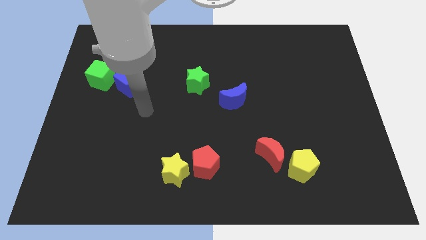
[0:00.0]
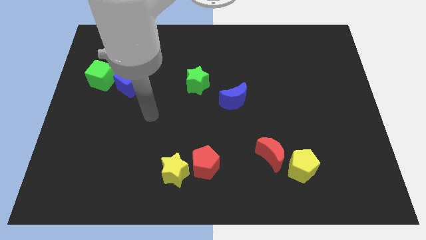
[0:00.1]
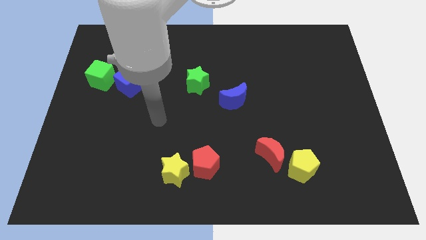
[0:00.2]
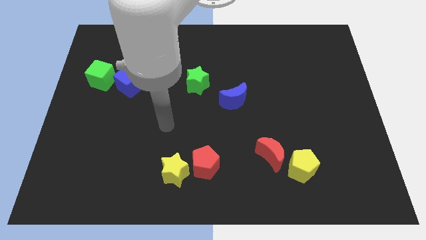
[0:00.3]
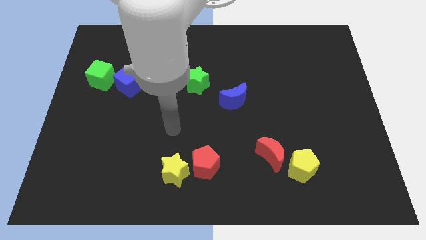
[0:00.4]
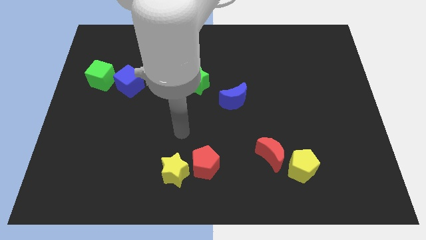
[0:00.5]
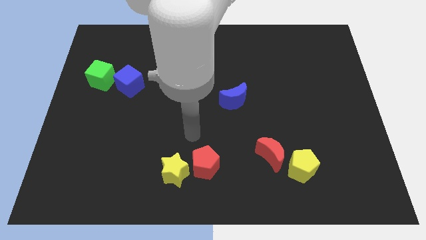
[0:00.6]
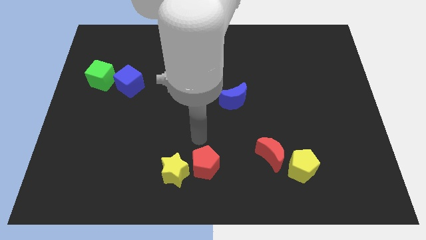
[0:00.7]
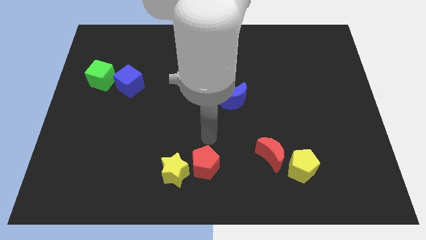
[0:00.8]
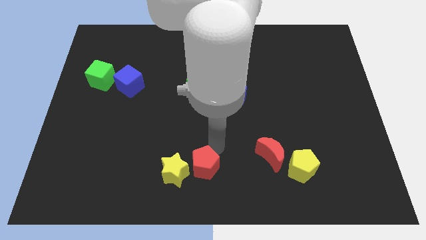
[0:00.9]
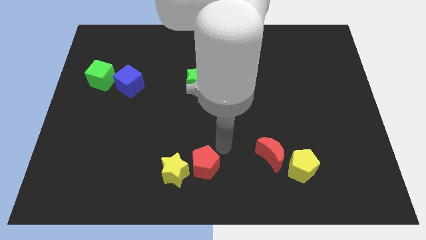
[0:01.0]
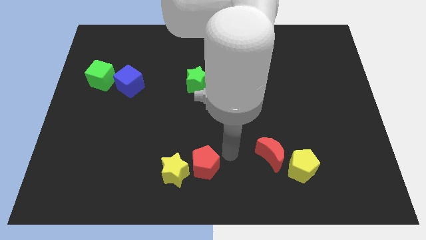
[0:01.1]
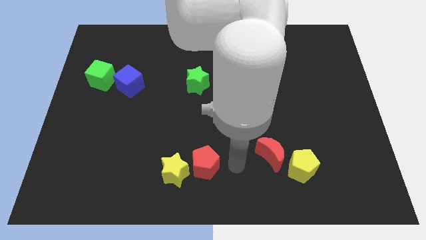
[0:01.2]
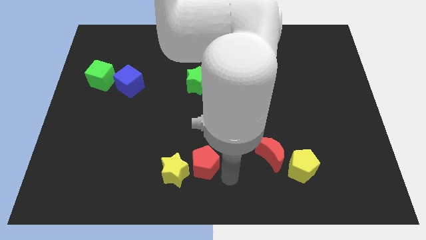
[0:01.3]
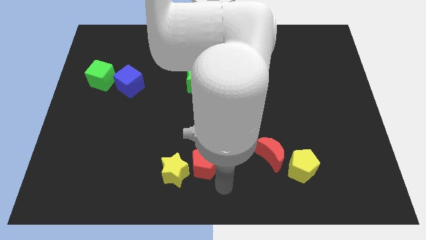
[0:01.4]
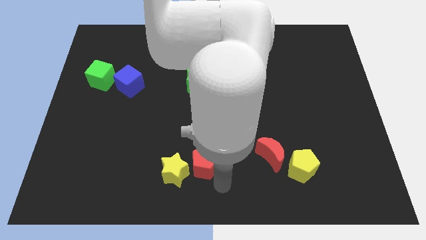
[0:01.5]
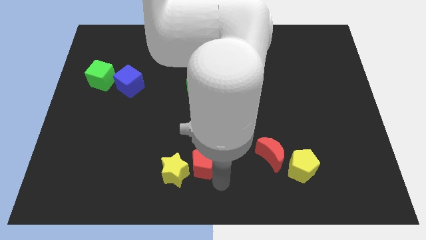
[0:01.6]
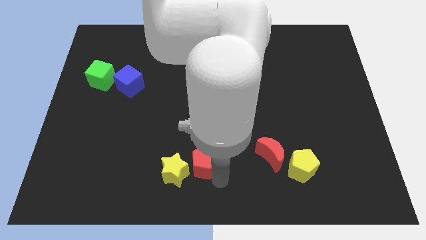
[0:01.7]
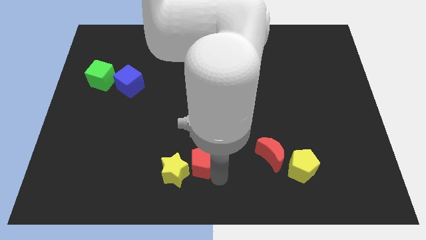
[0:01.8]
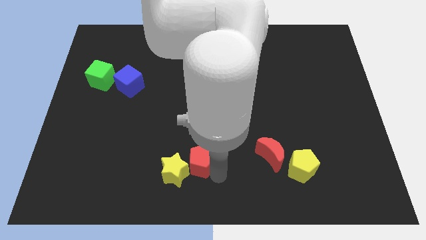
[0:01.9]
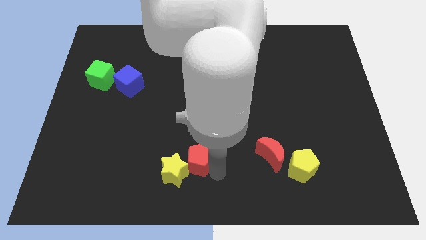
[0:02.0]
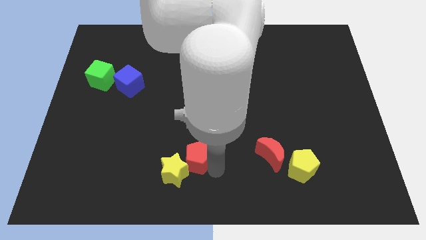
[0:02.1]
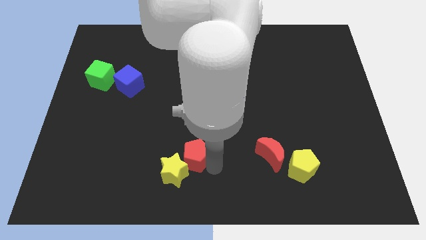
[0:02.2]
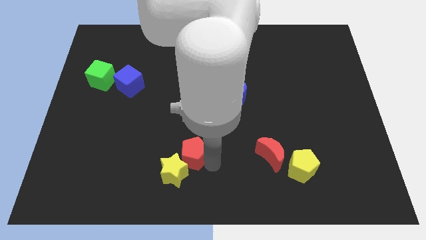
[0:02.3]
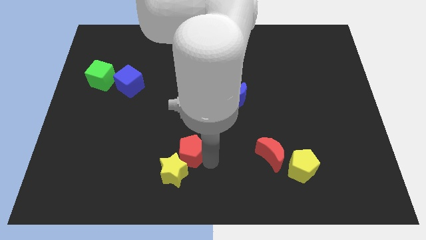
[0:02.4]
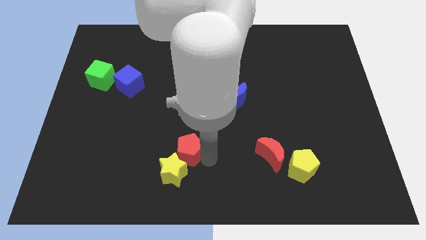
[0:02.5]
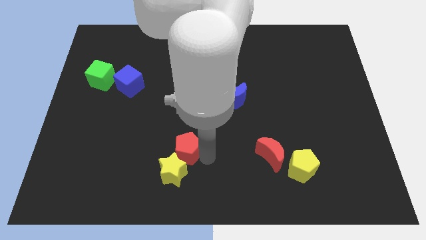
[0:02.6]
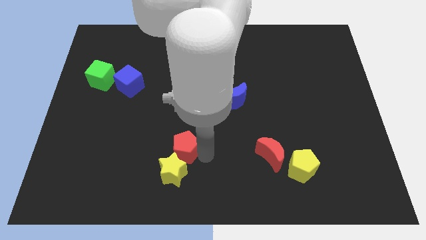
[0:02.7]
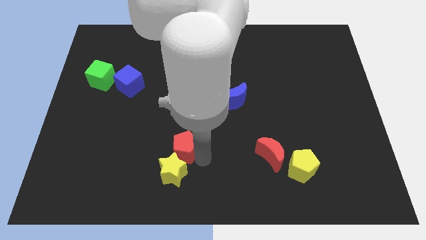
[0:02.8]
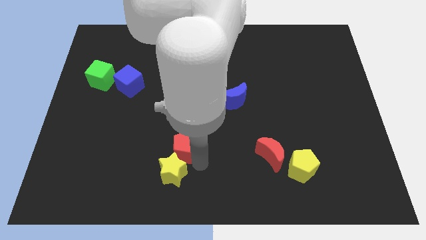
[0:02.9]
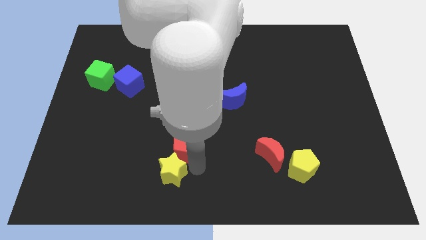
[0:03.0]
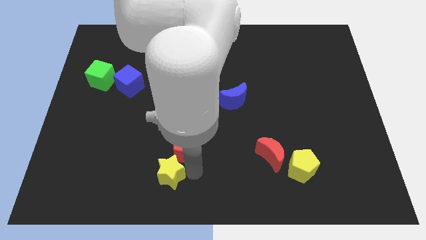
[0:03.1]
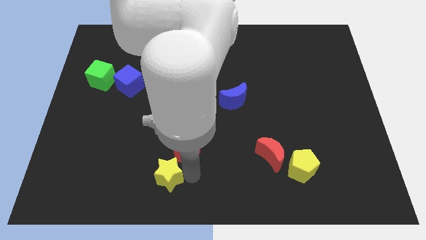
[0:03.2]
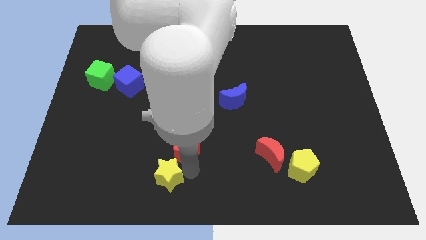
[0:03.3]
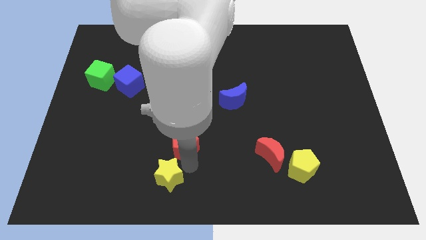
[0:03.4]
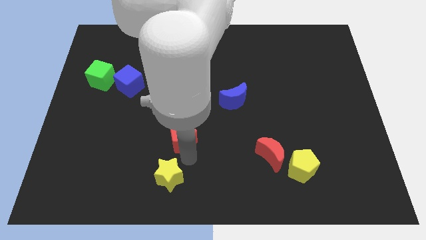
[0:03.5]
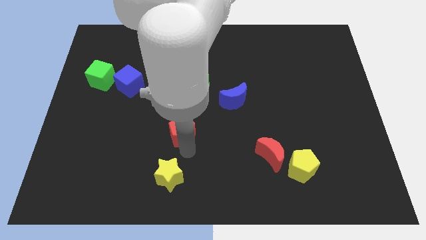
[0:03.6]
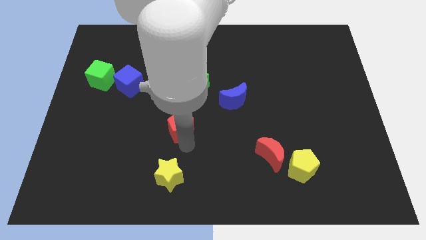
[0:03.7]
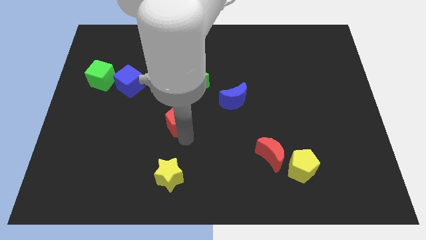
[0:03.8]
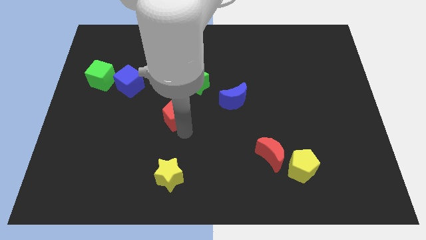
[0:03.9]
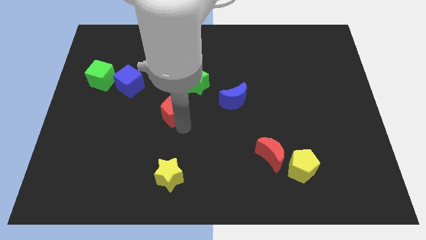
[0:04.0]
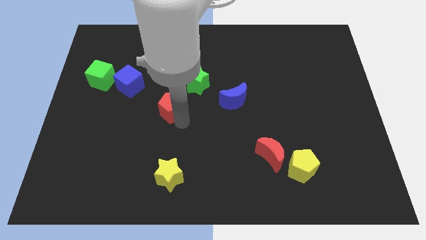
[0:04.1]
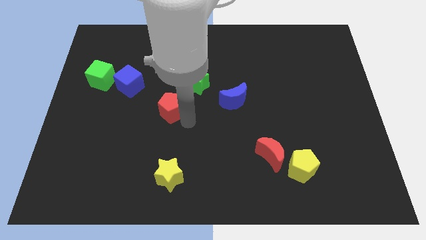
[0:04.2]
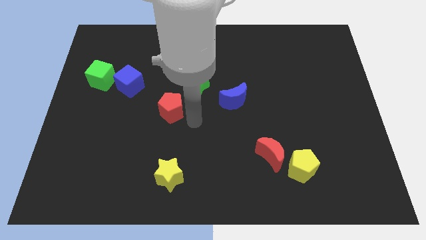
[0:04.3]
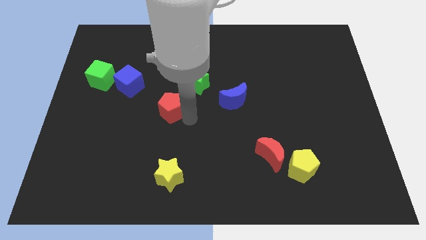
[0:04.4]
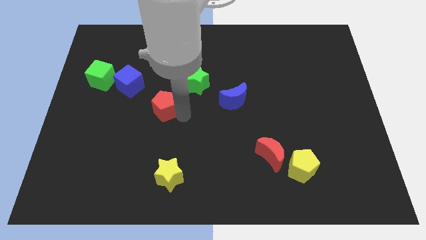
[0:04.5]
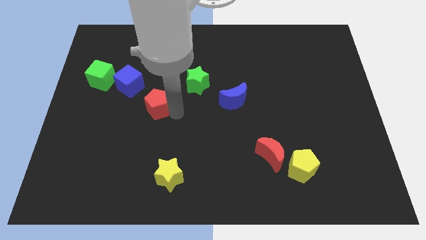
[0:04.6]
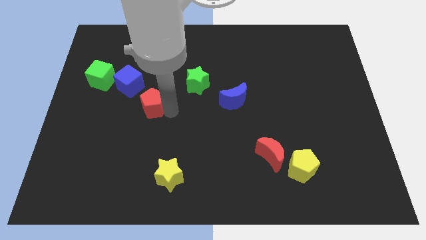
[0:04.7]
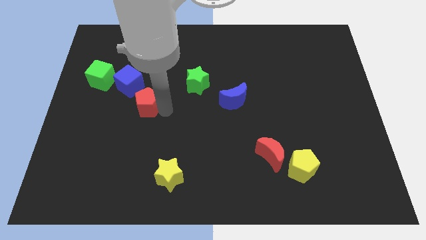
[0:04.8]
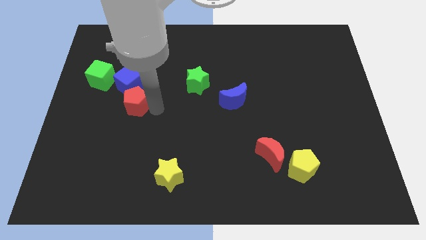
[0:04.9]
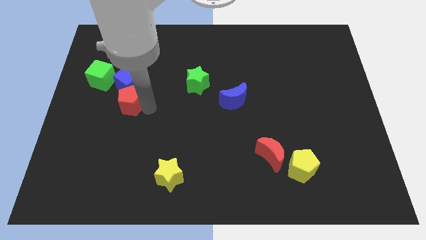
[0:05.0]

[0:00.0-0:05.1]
put the red pentagon next to the blue cube

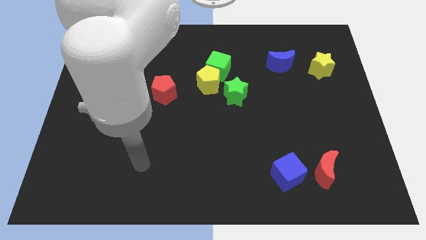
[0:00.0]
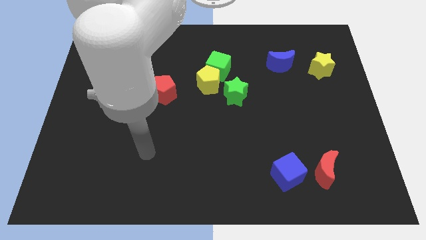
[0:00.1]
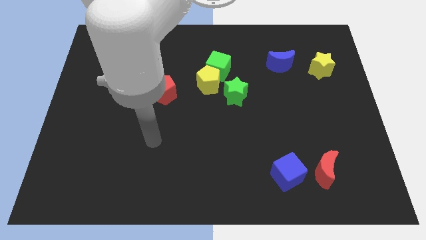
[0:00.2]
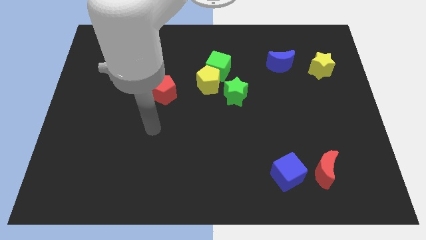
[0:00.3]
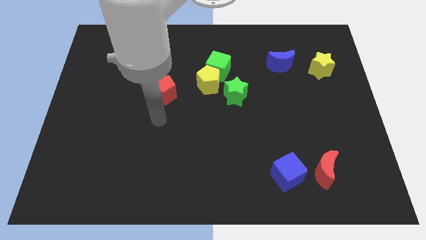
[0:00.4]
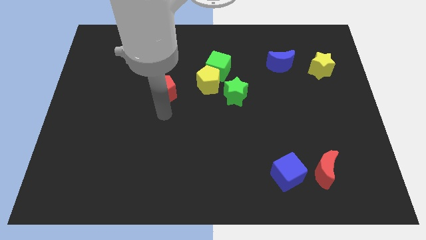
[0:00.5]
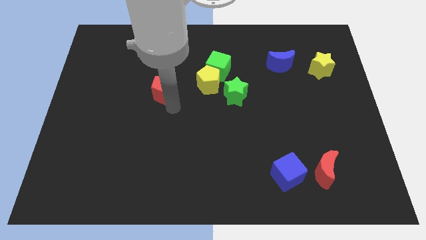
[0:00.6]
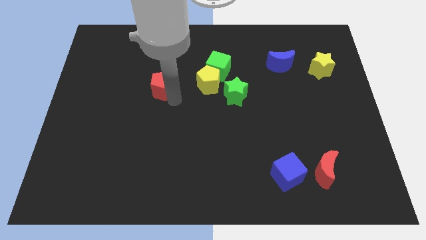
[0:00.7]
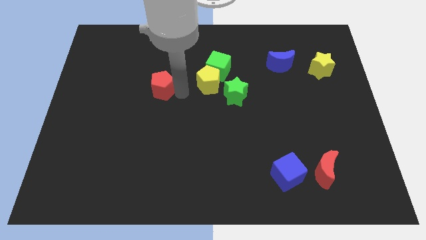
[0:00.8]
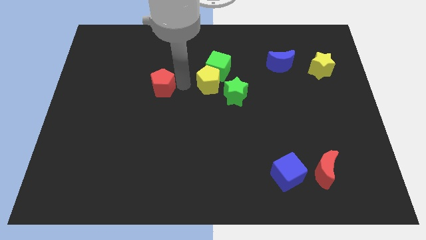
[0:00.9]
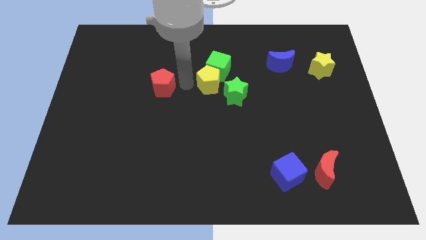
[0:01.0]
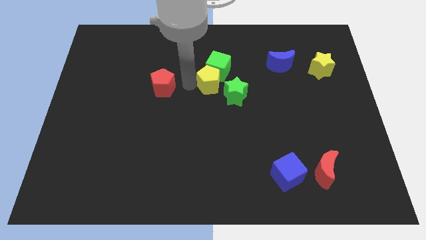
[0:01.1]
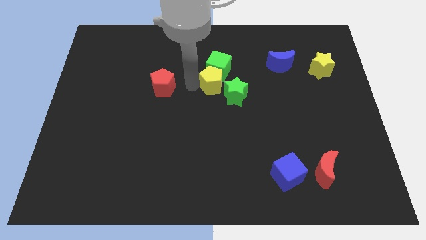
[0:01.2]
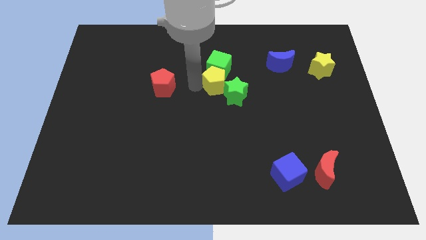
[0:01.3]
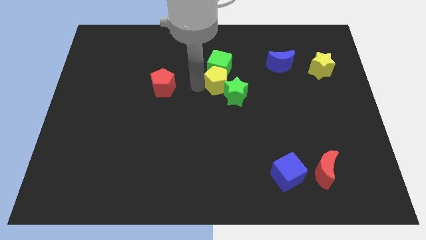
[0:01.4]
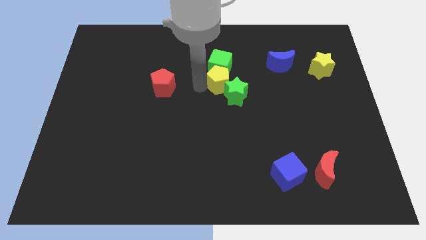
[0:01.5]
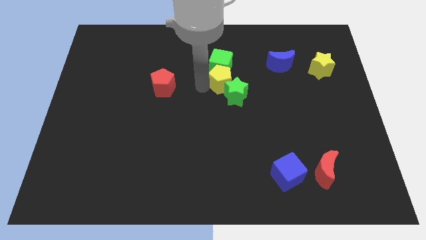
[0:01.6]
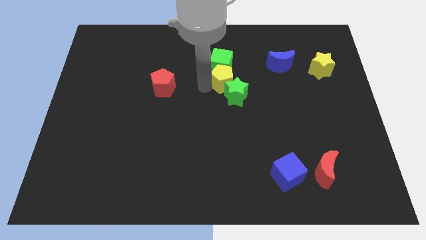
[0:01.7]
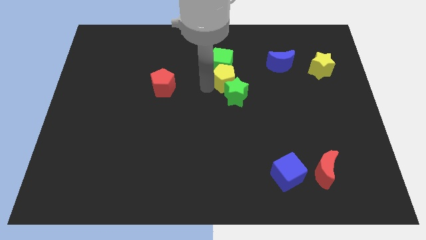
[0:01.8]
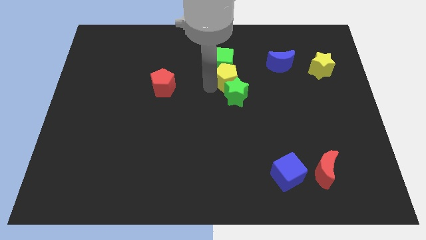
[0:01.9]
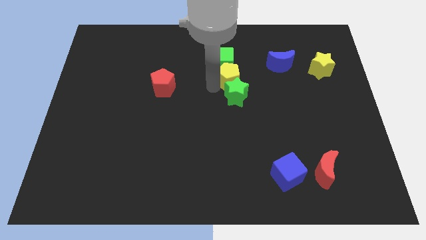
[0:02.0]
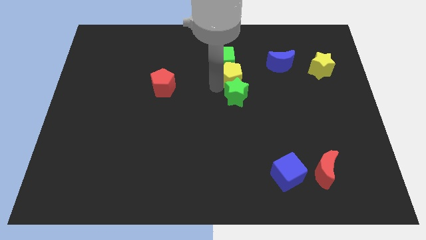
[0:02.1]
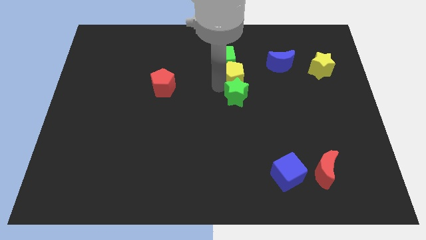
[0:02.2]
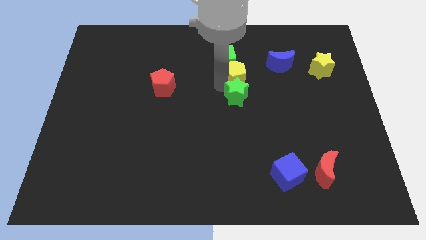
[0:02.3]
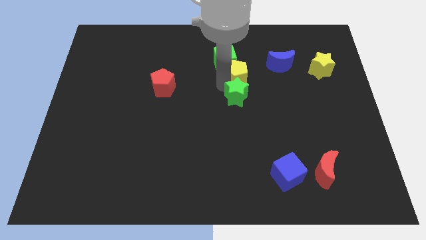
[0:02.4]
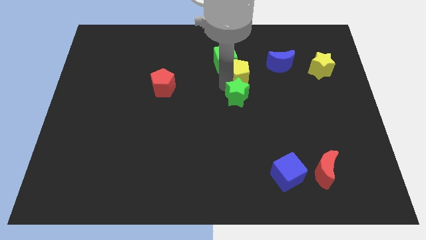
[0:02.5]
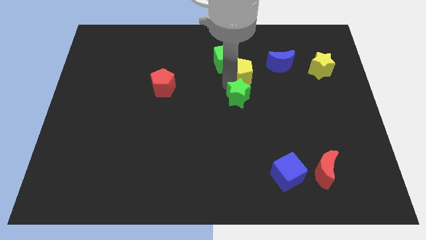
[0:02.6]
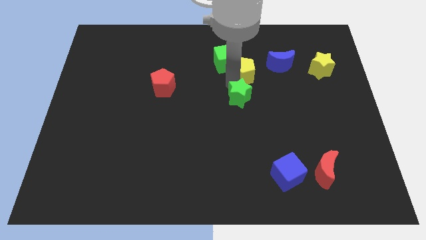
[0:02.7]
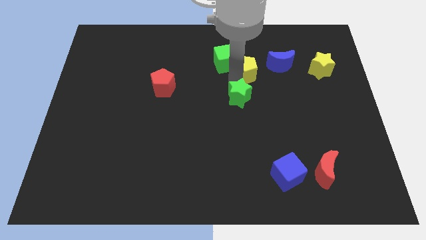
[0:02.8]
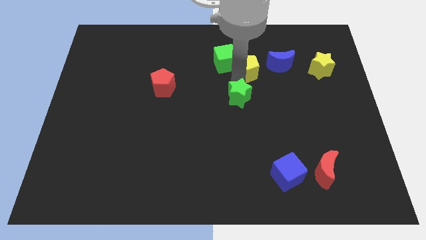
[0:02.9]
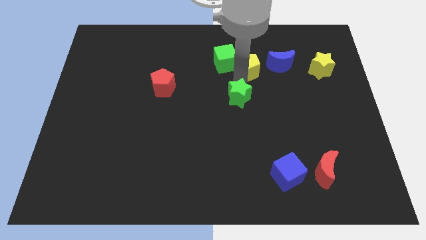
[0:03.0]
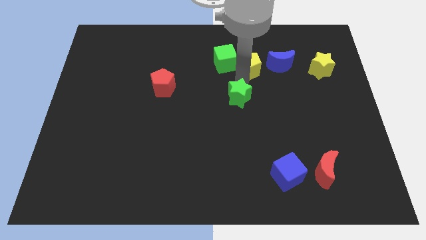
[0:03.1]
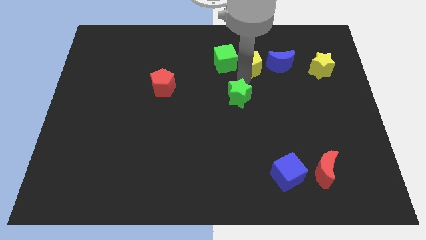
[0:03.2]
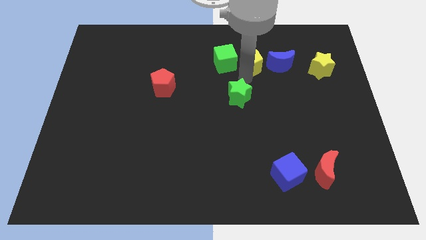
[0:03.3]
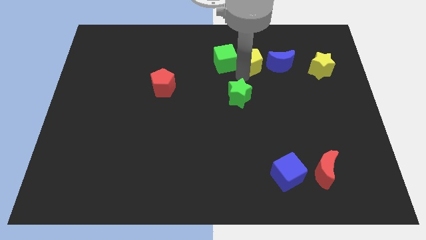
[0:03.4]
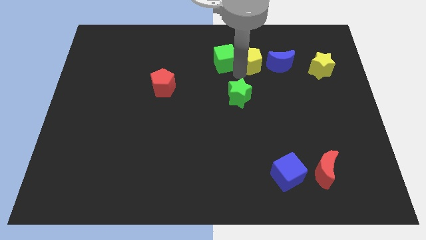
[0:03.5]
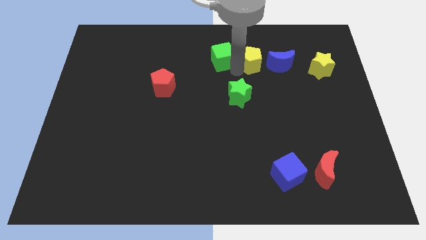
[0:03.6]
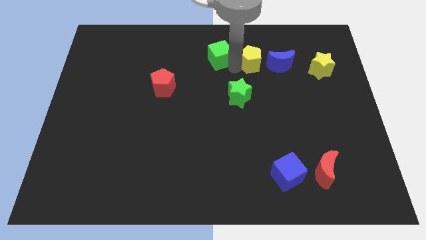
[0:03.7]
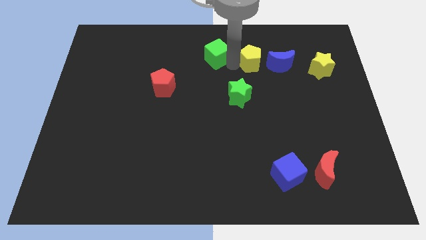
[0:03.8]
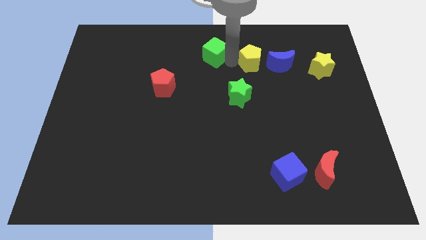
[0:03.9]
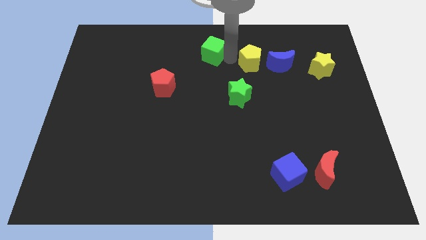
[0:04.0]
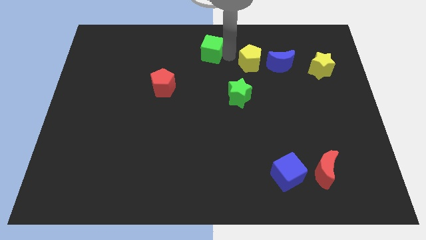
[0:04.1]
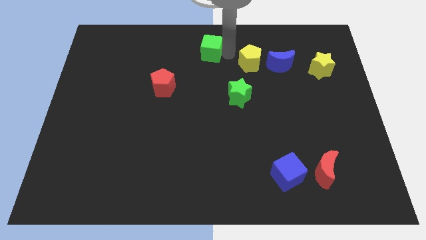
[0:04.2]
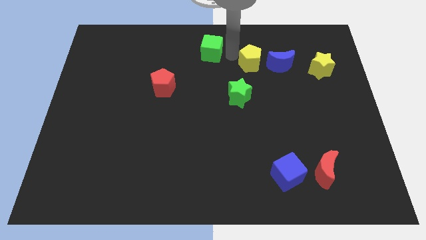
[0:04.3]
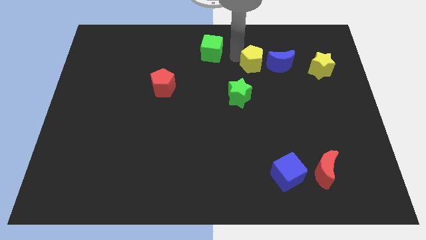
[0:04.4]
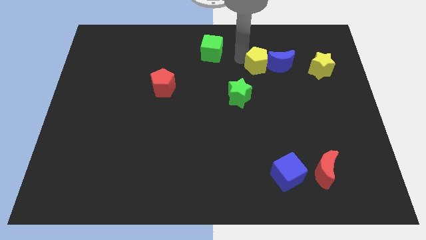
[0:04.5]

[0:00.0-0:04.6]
put the yellow pentagon close to the blue moon
